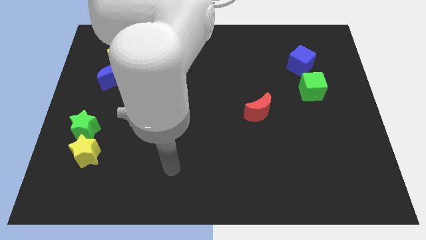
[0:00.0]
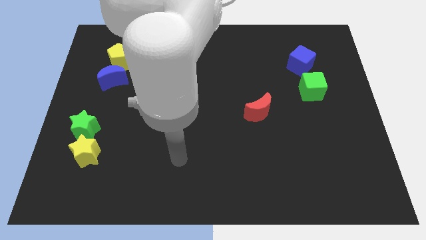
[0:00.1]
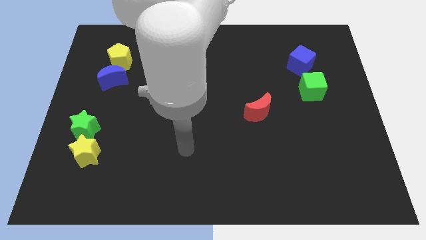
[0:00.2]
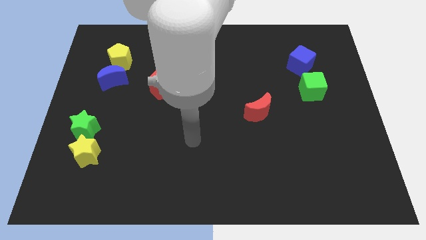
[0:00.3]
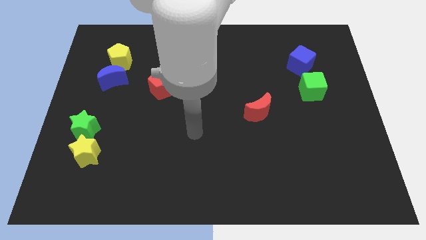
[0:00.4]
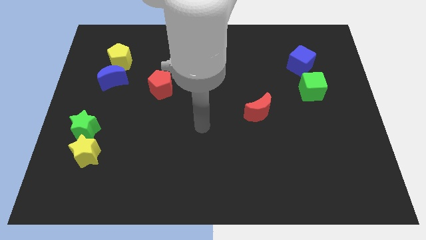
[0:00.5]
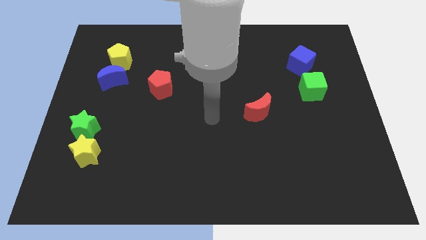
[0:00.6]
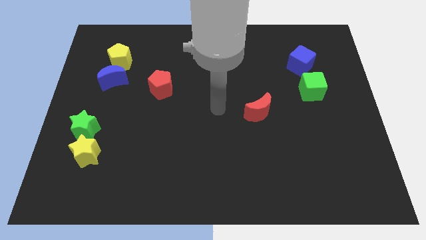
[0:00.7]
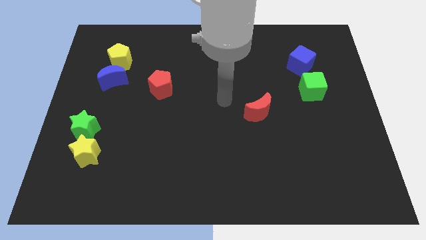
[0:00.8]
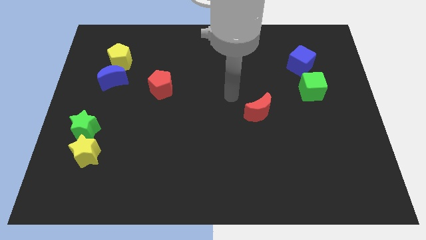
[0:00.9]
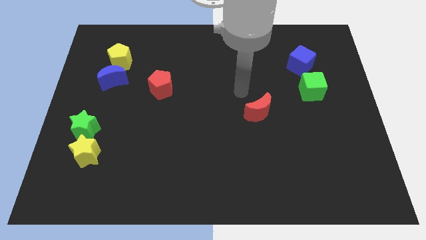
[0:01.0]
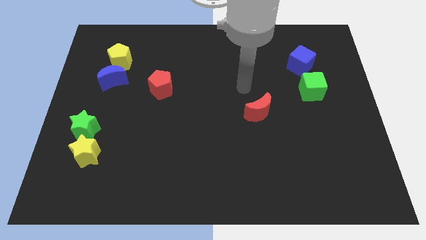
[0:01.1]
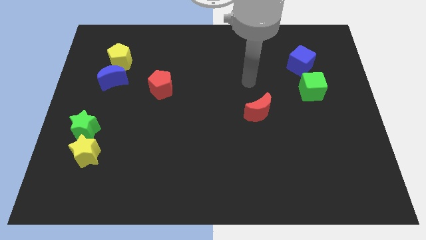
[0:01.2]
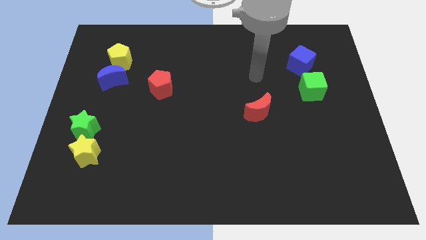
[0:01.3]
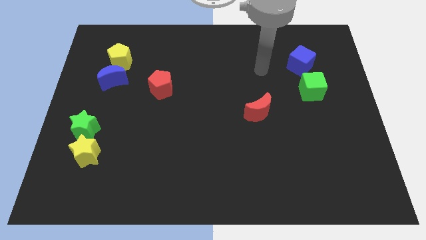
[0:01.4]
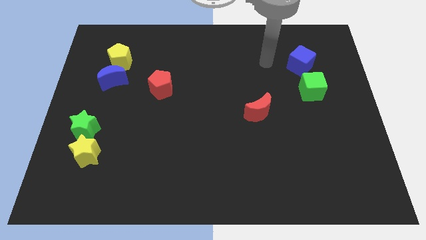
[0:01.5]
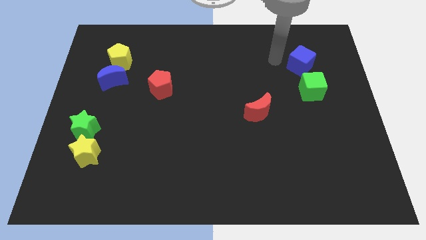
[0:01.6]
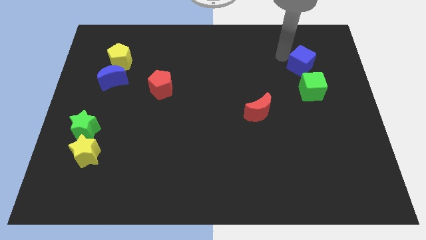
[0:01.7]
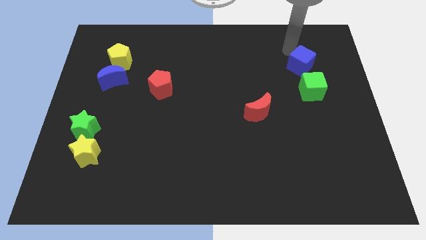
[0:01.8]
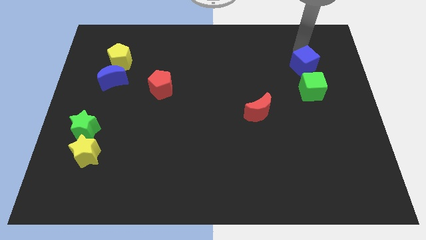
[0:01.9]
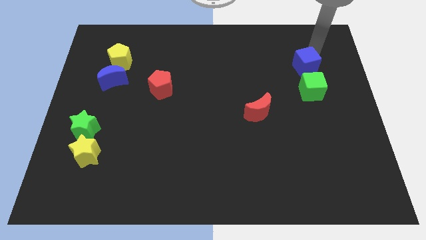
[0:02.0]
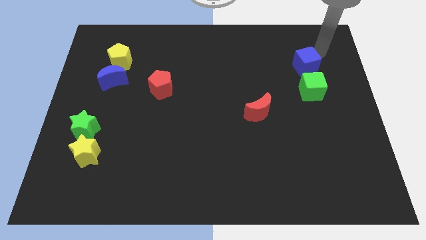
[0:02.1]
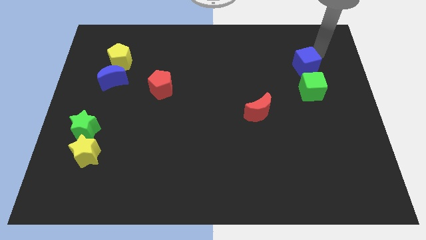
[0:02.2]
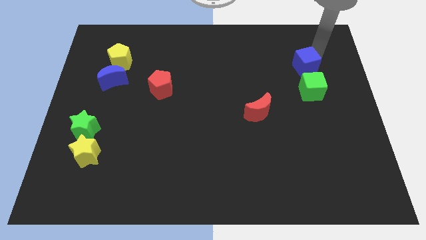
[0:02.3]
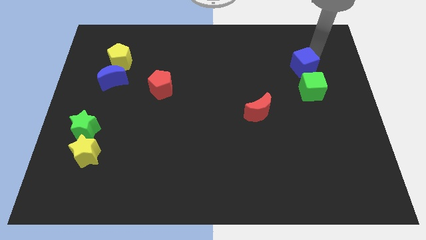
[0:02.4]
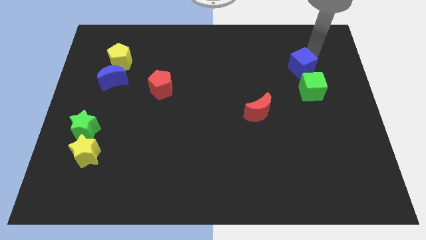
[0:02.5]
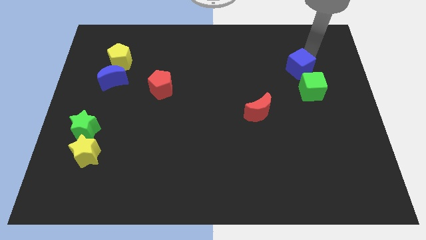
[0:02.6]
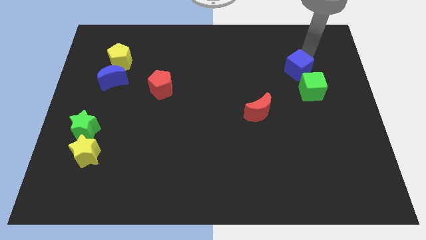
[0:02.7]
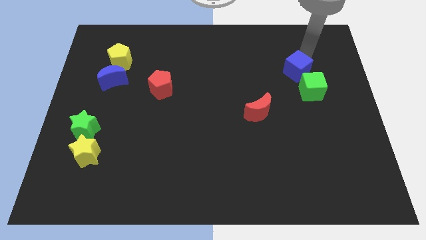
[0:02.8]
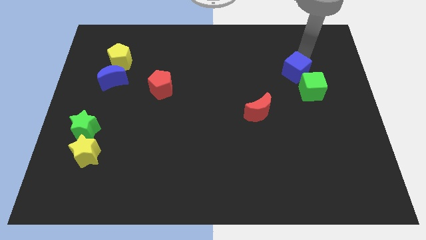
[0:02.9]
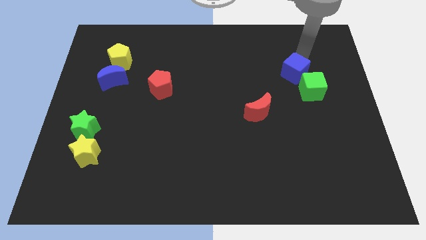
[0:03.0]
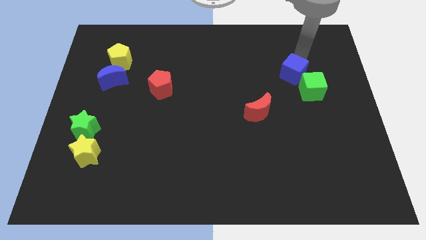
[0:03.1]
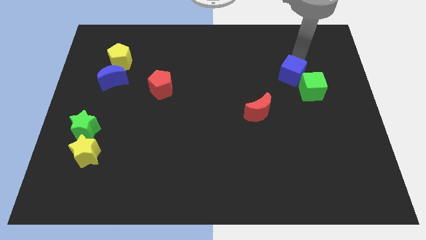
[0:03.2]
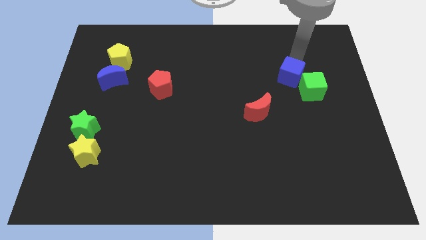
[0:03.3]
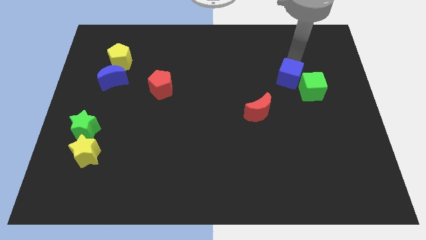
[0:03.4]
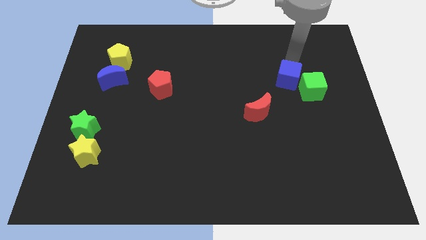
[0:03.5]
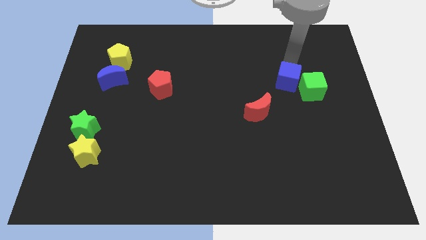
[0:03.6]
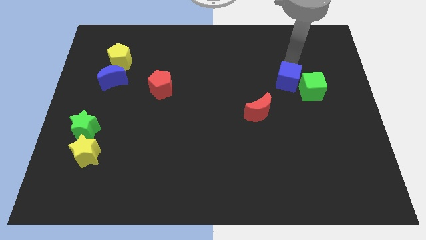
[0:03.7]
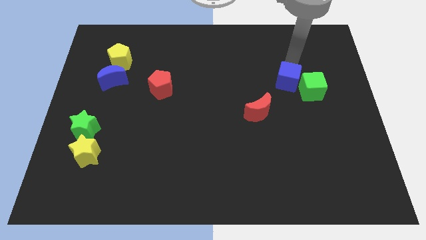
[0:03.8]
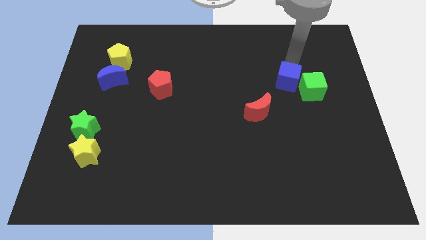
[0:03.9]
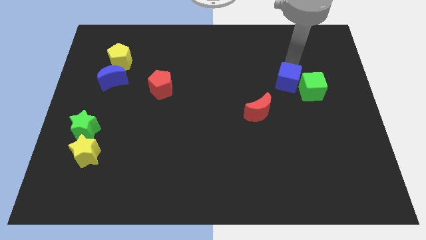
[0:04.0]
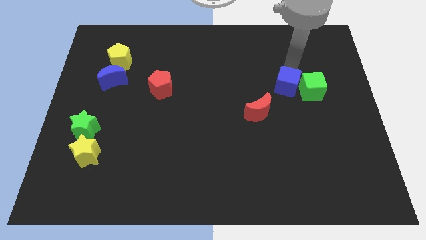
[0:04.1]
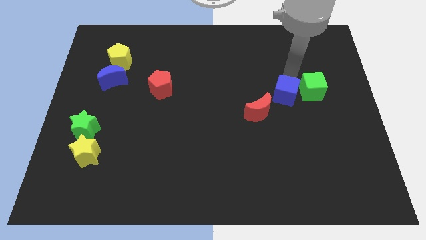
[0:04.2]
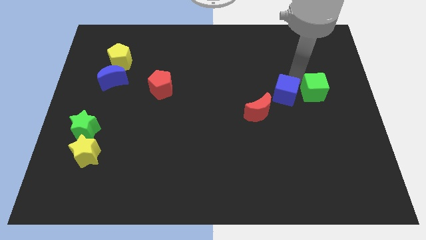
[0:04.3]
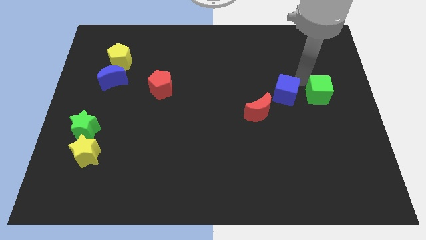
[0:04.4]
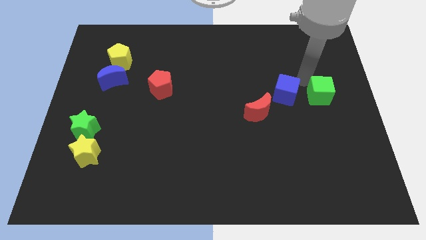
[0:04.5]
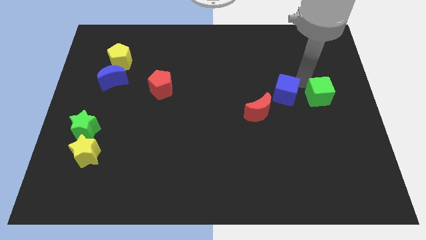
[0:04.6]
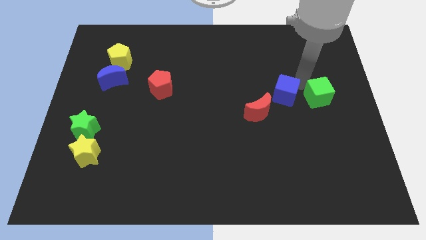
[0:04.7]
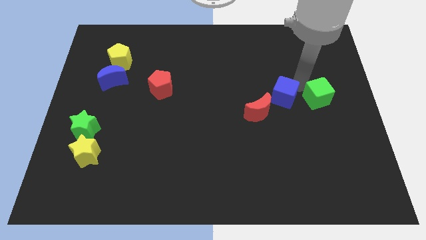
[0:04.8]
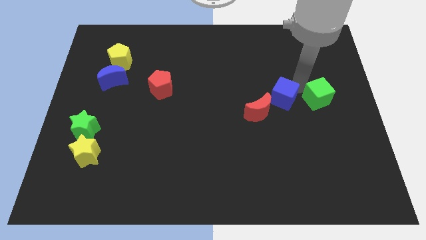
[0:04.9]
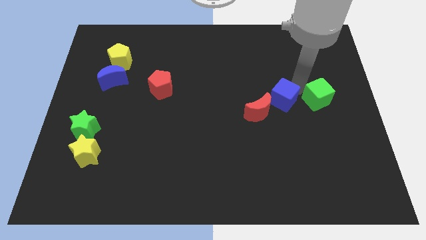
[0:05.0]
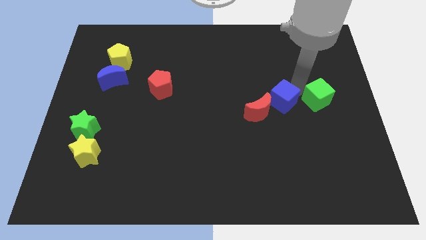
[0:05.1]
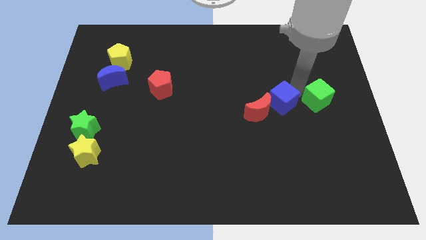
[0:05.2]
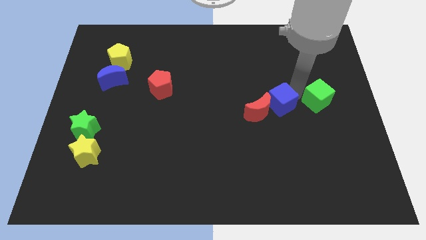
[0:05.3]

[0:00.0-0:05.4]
push the blue cube towards the red moon

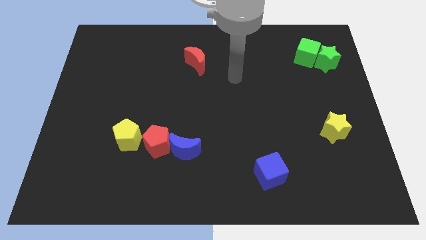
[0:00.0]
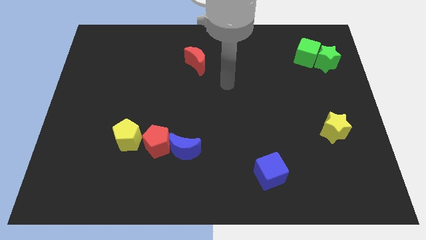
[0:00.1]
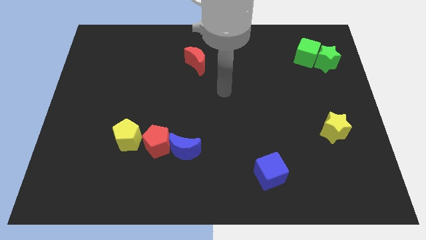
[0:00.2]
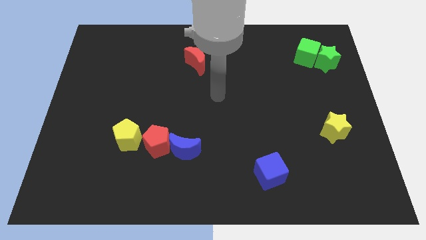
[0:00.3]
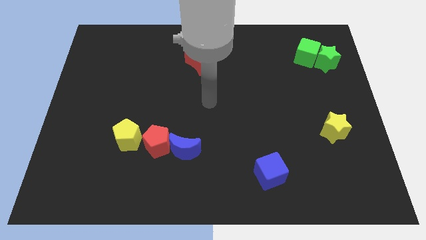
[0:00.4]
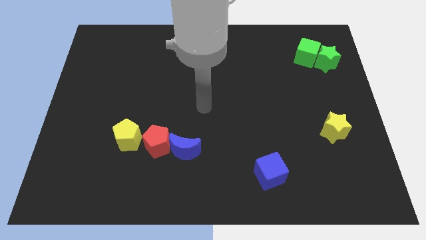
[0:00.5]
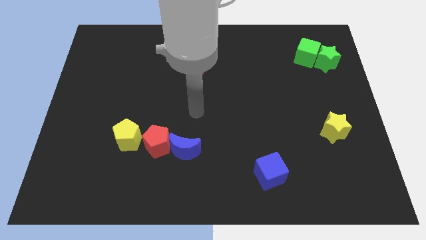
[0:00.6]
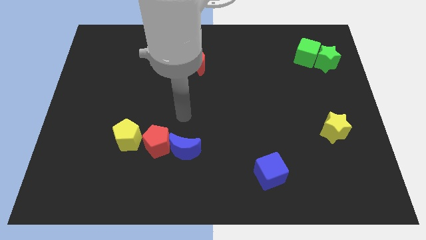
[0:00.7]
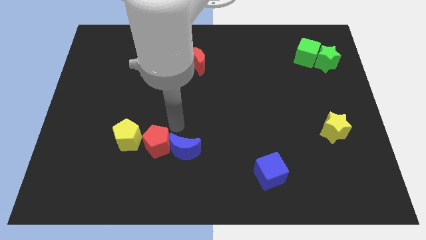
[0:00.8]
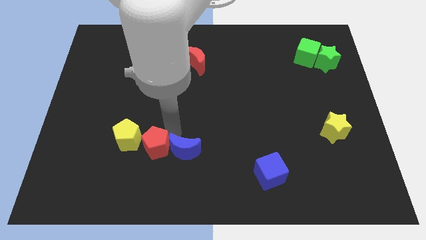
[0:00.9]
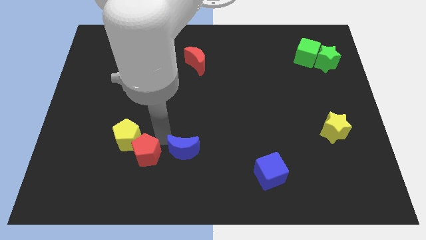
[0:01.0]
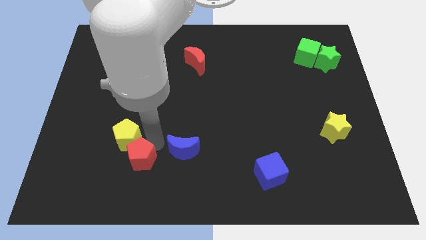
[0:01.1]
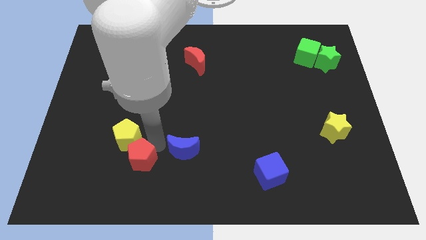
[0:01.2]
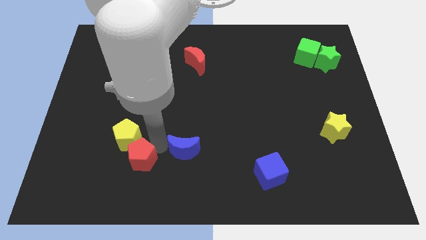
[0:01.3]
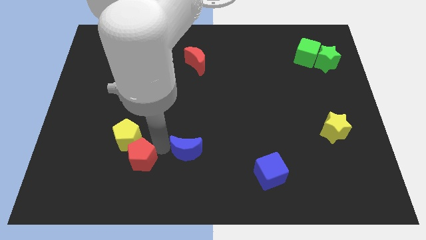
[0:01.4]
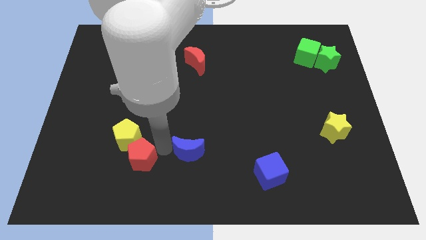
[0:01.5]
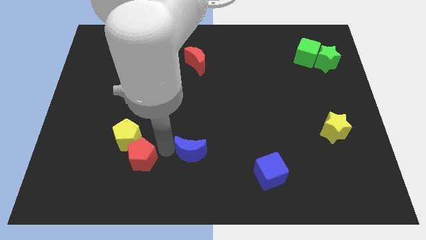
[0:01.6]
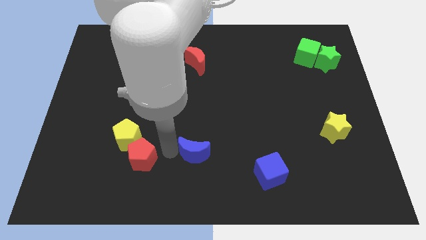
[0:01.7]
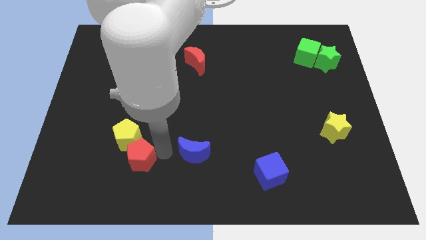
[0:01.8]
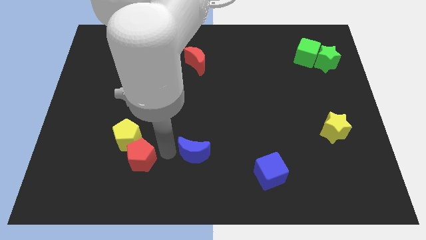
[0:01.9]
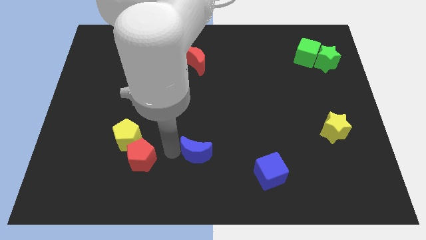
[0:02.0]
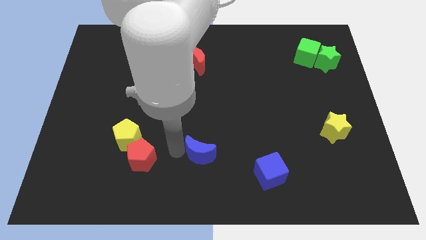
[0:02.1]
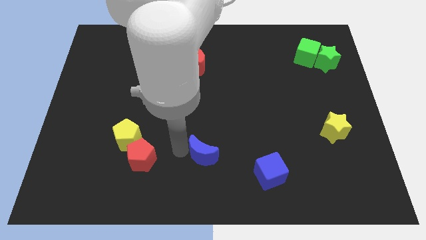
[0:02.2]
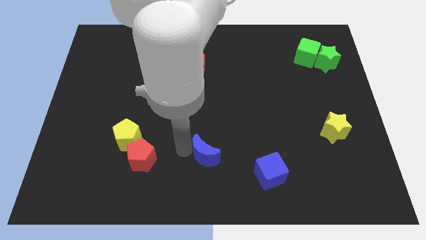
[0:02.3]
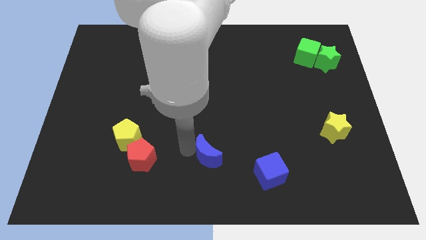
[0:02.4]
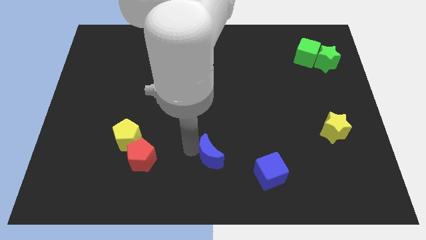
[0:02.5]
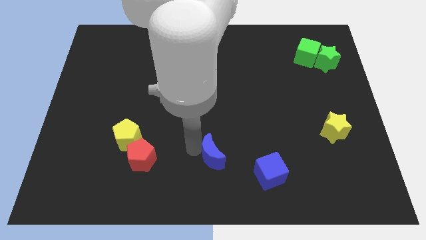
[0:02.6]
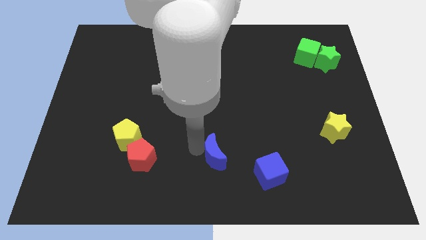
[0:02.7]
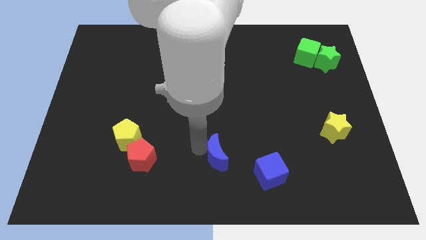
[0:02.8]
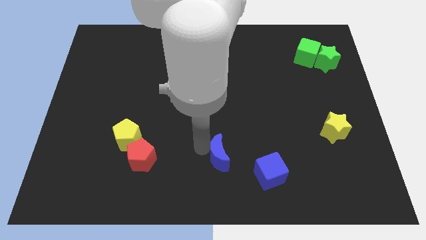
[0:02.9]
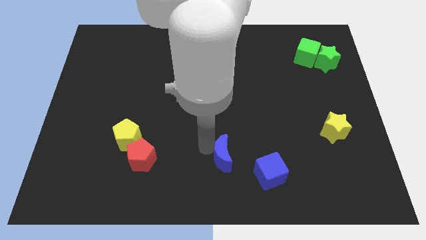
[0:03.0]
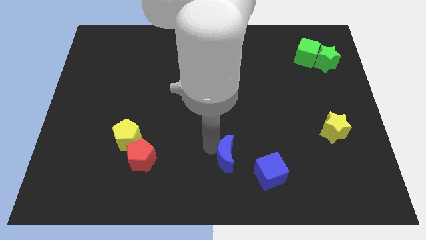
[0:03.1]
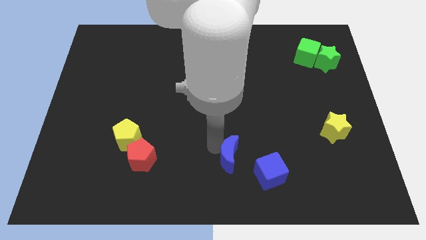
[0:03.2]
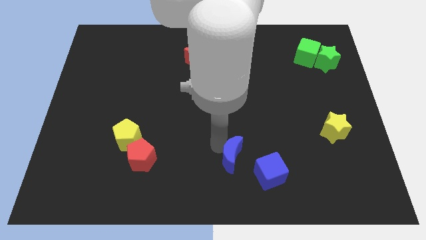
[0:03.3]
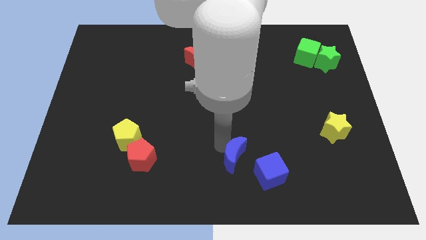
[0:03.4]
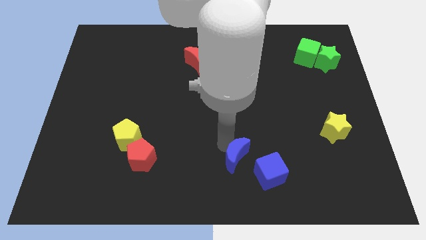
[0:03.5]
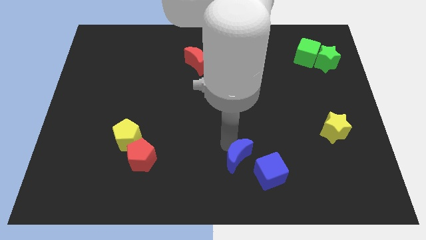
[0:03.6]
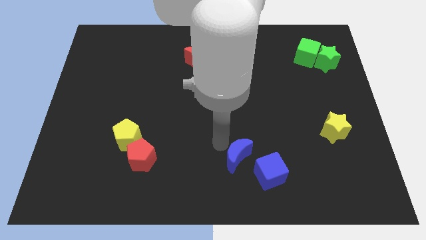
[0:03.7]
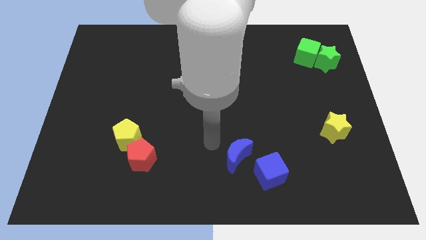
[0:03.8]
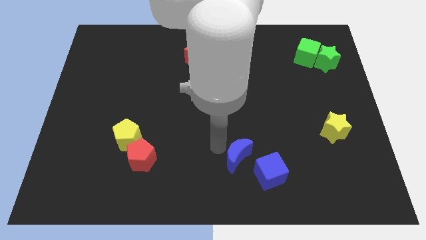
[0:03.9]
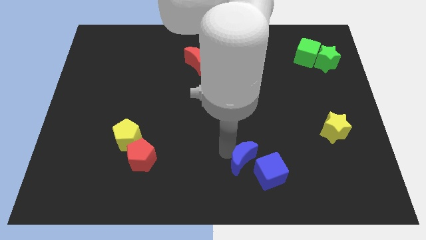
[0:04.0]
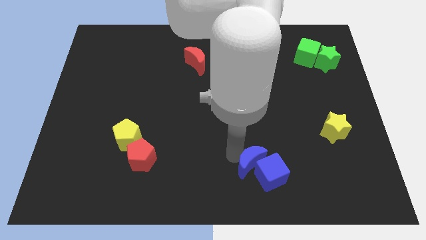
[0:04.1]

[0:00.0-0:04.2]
push the blue moon close to the blue cube
